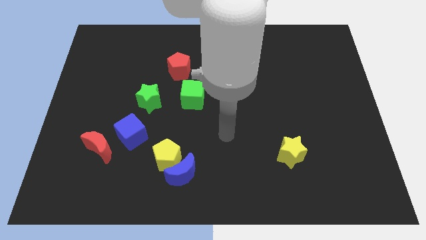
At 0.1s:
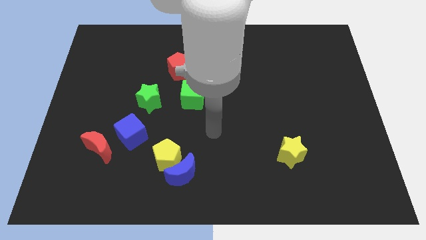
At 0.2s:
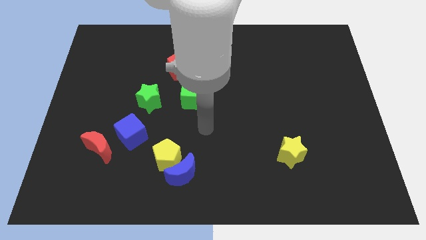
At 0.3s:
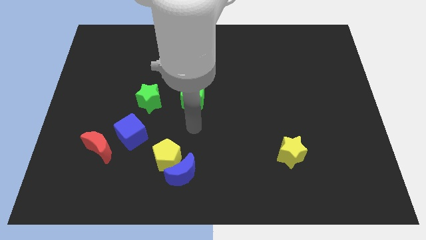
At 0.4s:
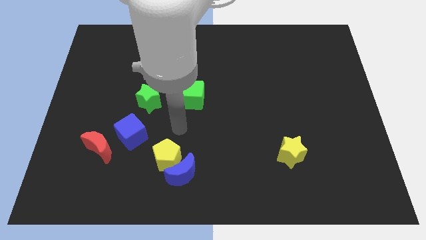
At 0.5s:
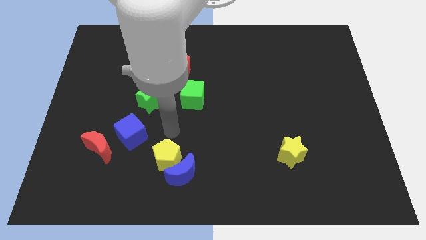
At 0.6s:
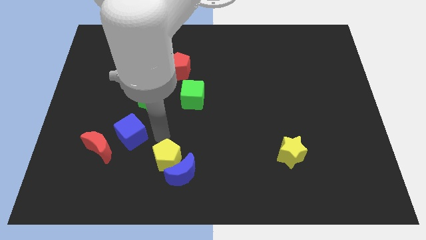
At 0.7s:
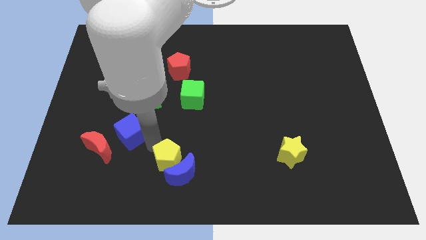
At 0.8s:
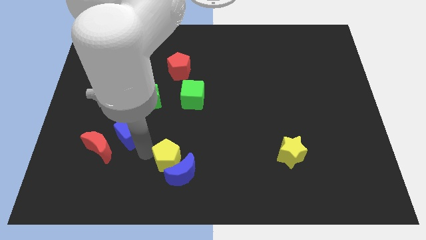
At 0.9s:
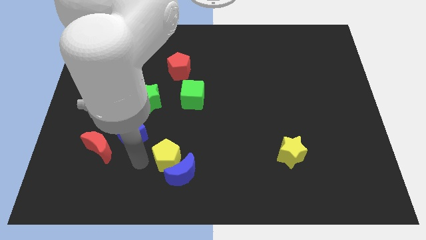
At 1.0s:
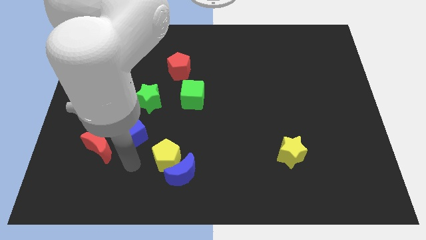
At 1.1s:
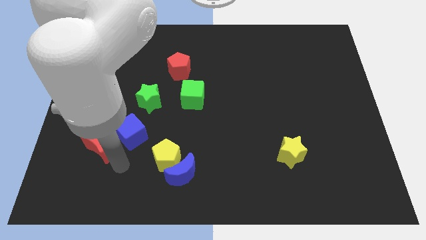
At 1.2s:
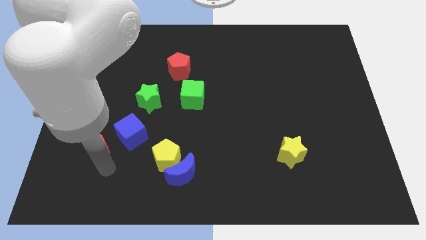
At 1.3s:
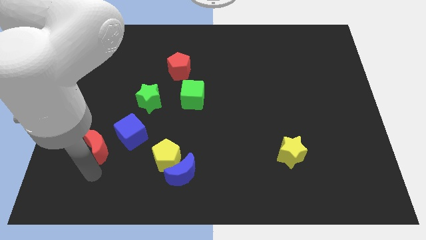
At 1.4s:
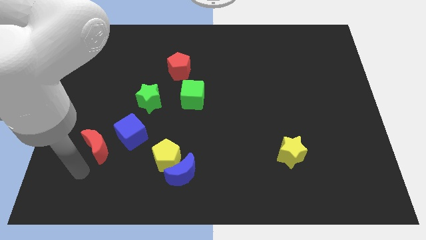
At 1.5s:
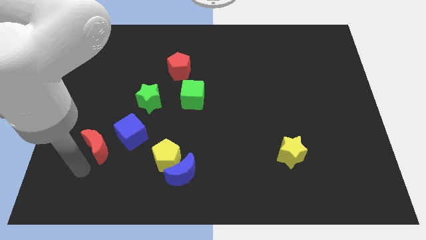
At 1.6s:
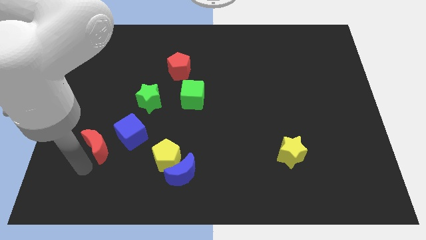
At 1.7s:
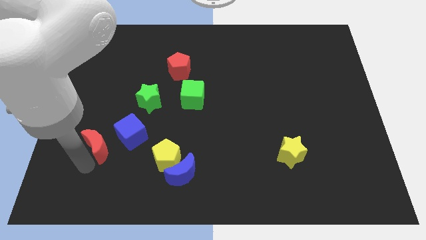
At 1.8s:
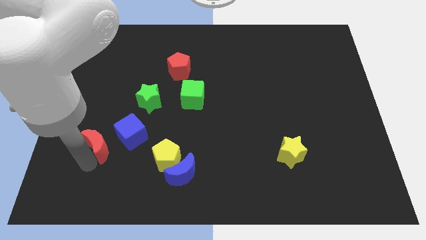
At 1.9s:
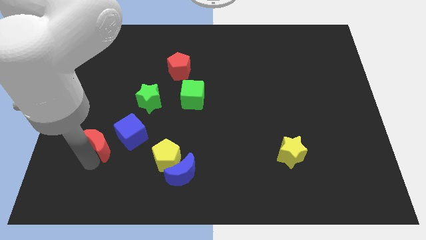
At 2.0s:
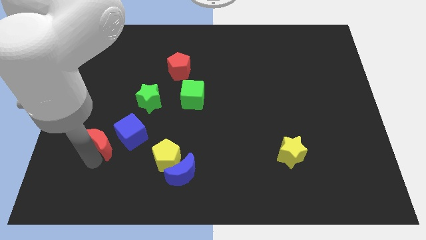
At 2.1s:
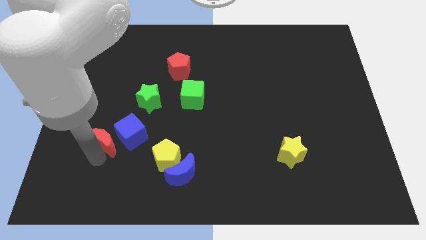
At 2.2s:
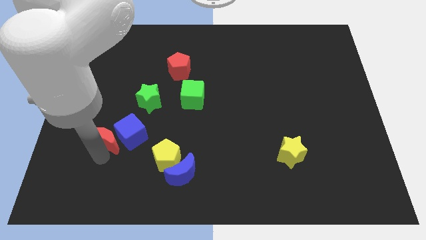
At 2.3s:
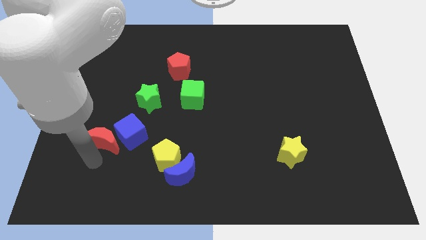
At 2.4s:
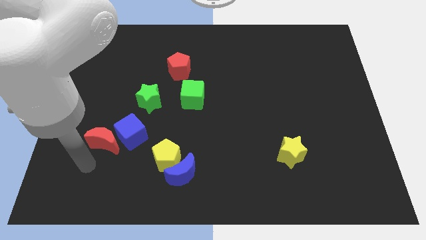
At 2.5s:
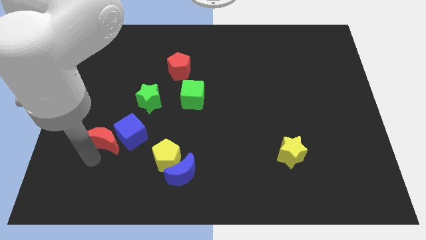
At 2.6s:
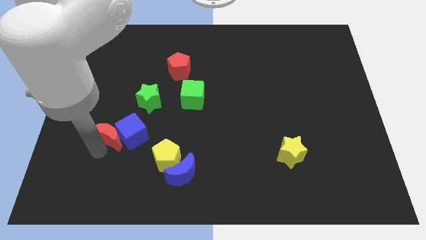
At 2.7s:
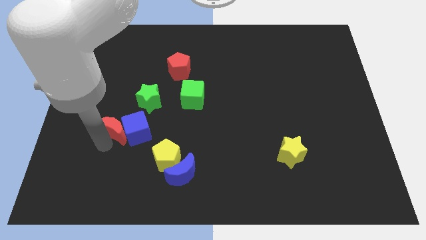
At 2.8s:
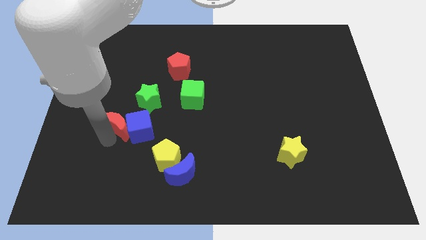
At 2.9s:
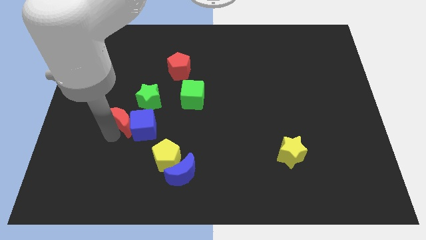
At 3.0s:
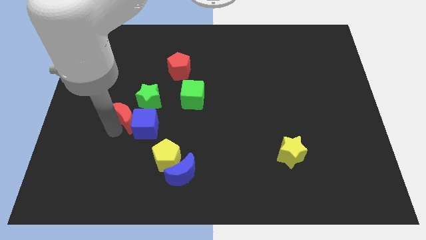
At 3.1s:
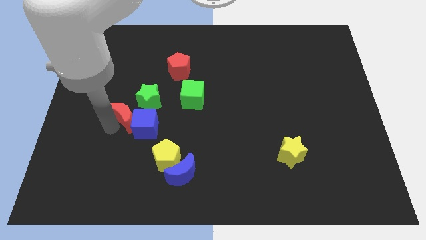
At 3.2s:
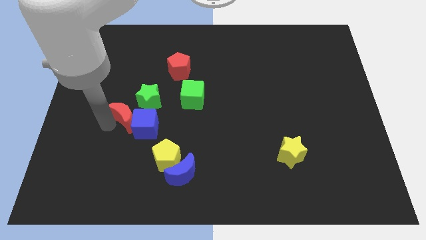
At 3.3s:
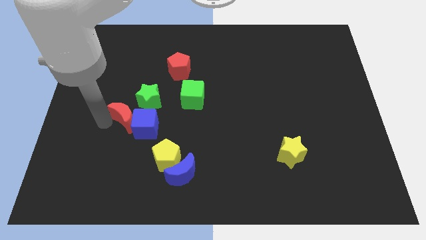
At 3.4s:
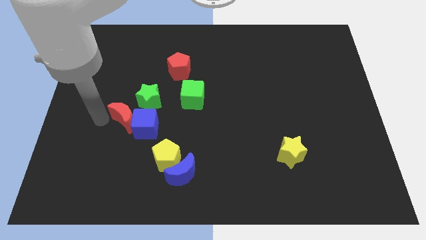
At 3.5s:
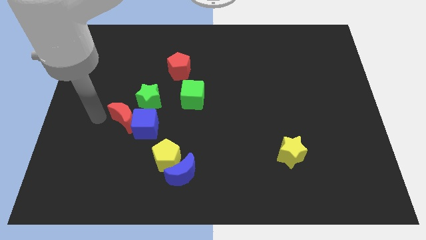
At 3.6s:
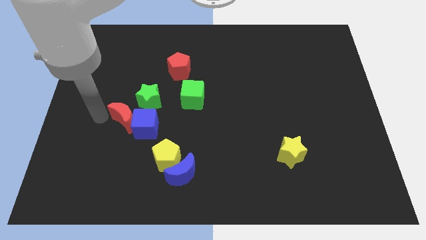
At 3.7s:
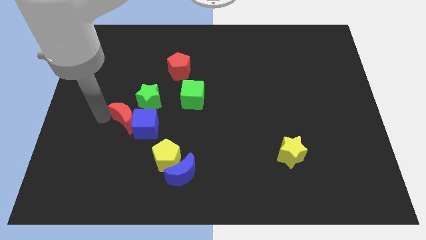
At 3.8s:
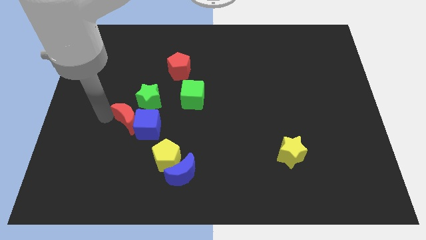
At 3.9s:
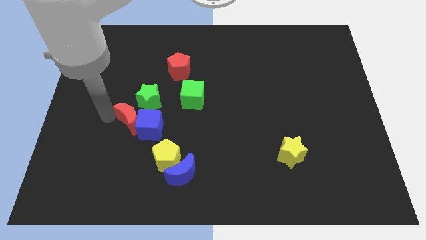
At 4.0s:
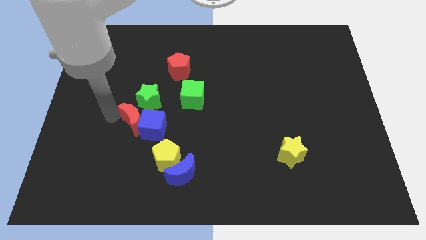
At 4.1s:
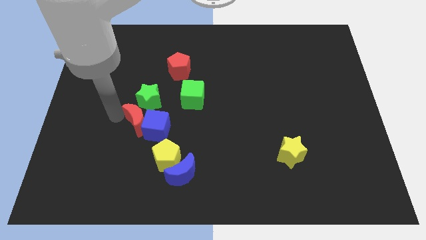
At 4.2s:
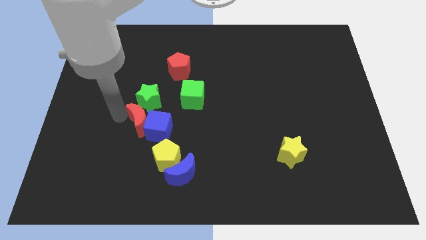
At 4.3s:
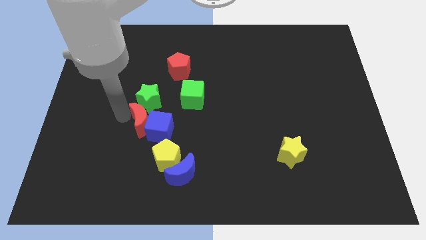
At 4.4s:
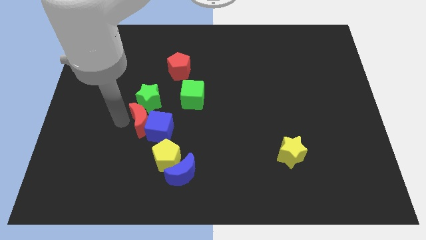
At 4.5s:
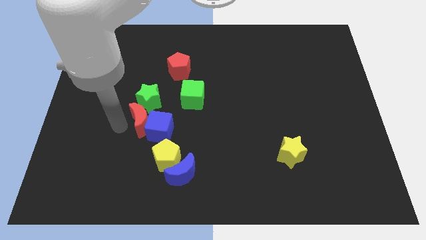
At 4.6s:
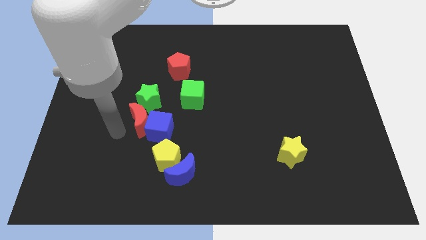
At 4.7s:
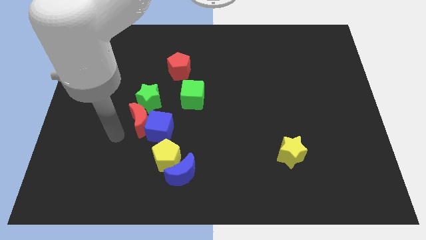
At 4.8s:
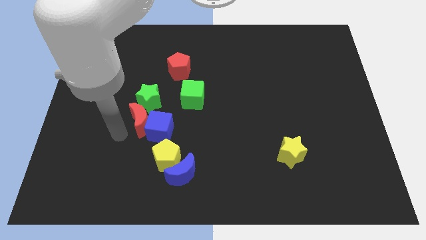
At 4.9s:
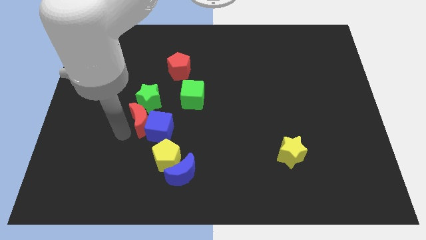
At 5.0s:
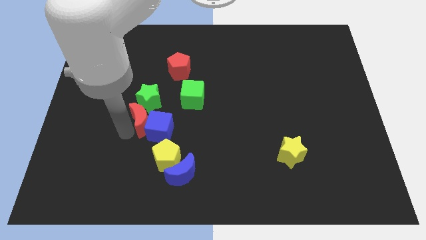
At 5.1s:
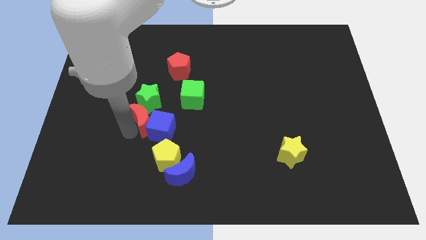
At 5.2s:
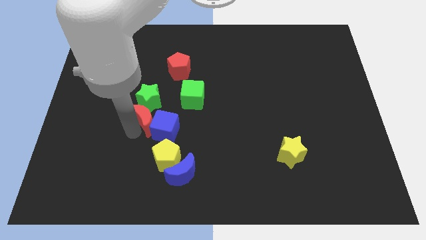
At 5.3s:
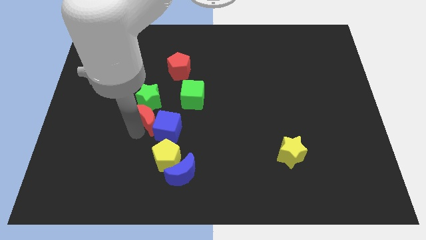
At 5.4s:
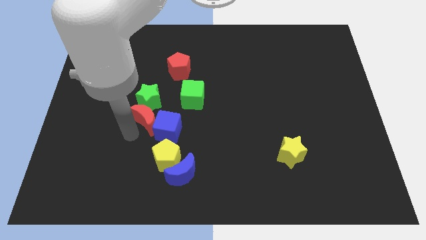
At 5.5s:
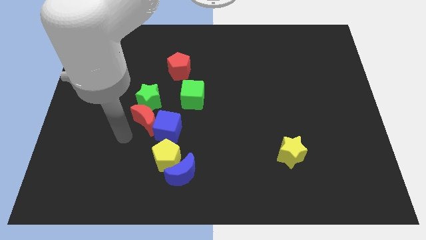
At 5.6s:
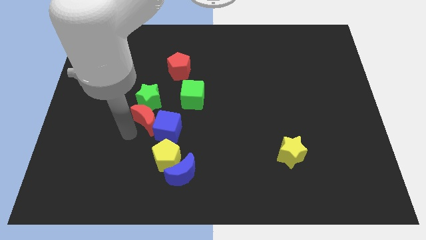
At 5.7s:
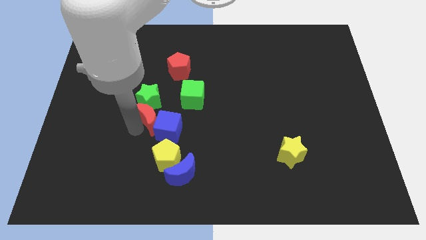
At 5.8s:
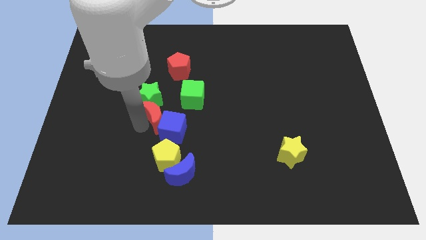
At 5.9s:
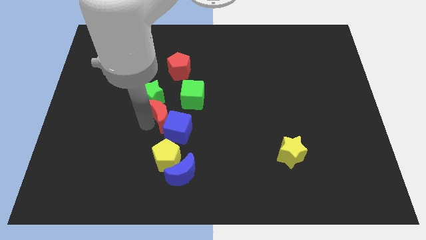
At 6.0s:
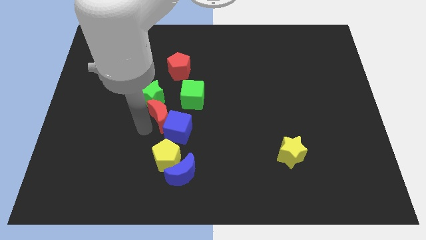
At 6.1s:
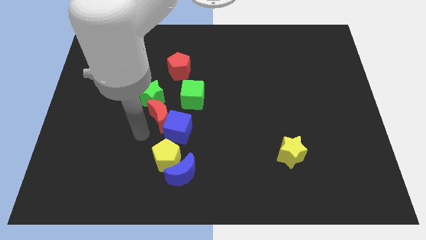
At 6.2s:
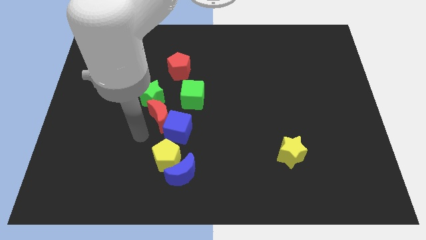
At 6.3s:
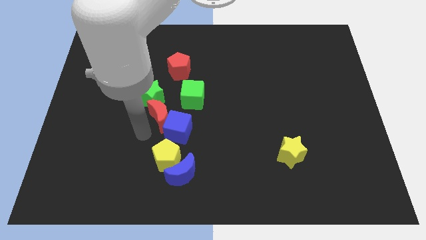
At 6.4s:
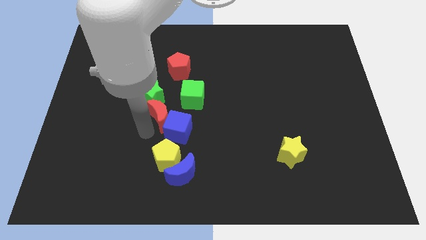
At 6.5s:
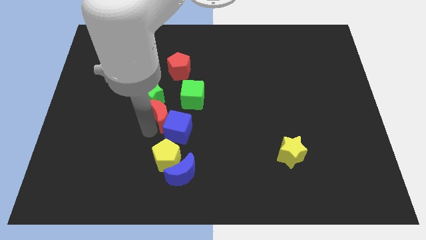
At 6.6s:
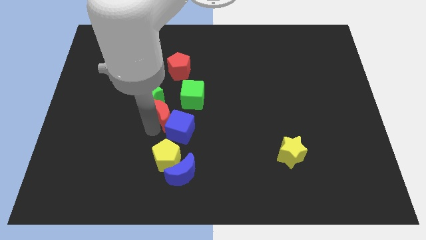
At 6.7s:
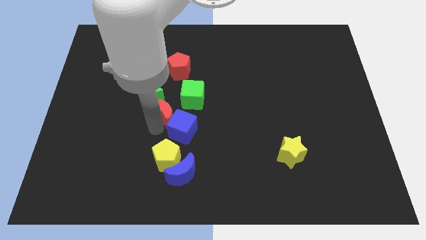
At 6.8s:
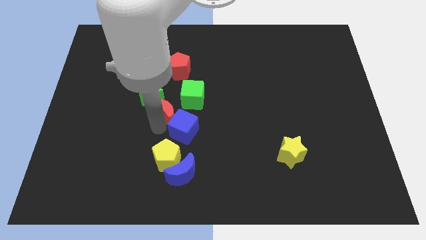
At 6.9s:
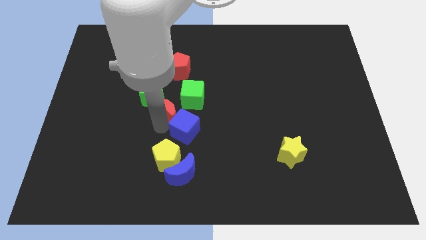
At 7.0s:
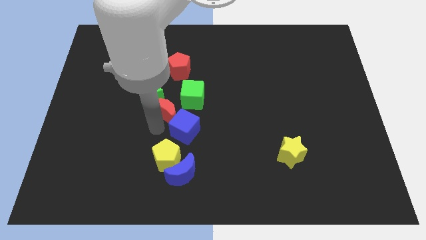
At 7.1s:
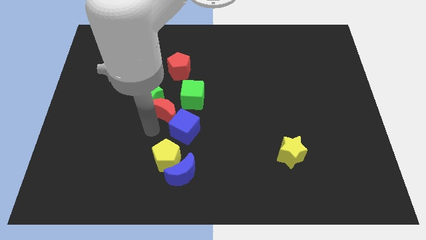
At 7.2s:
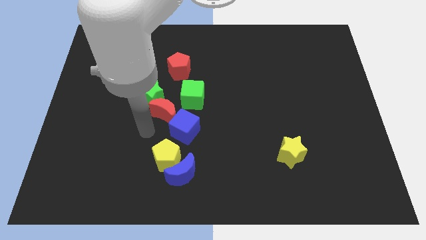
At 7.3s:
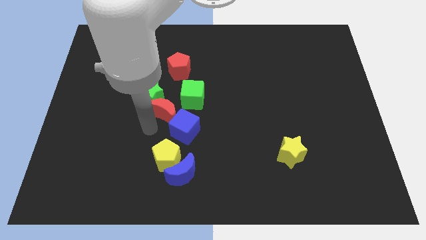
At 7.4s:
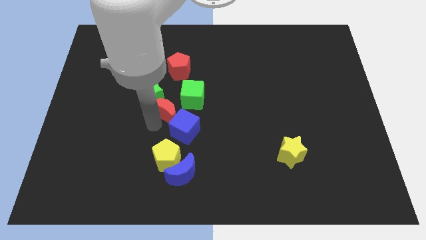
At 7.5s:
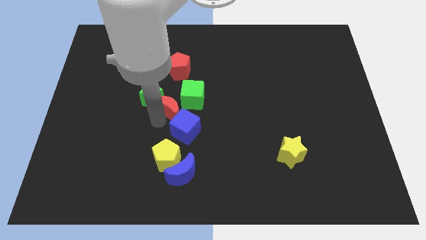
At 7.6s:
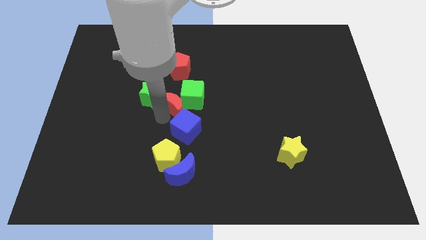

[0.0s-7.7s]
slide the red moon to the green cube
